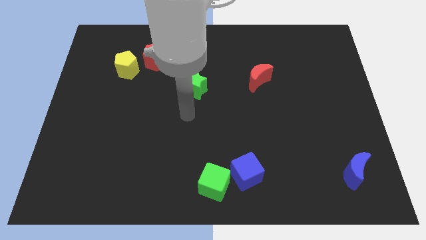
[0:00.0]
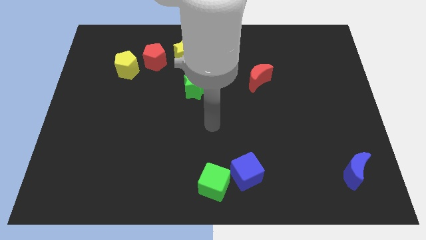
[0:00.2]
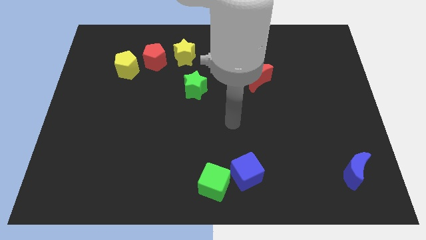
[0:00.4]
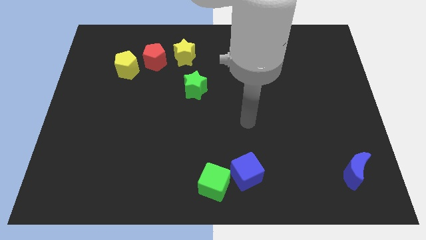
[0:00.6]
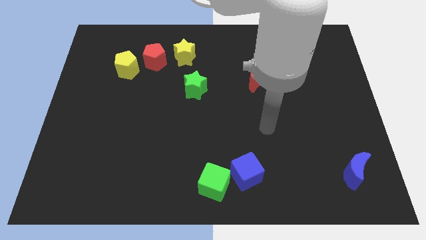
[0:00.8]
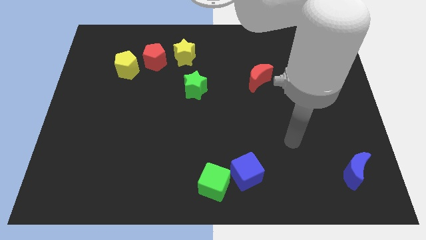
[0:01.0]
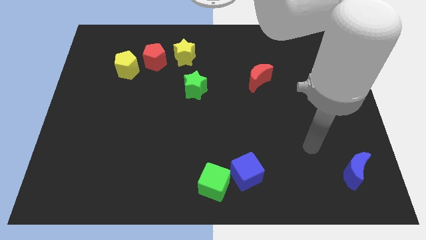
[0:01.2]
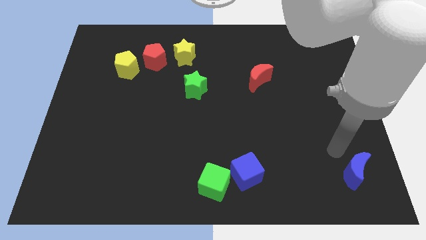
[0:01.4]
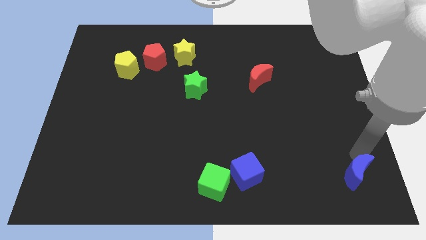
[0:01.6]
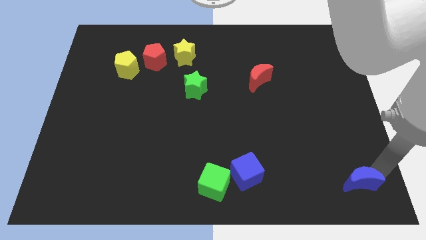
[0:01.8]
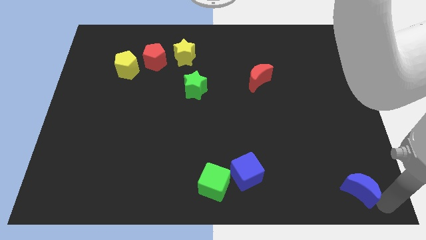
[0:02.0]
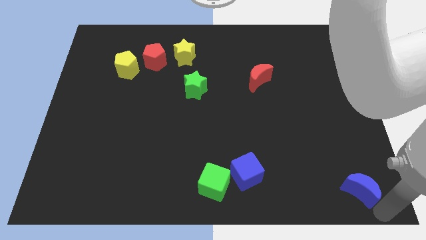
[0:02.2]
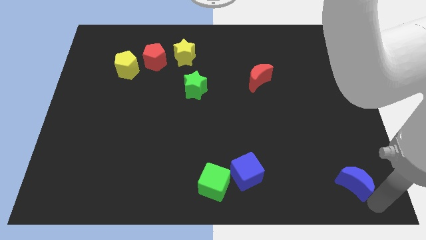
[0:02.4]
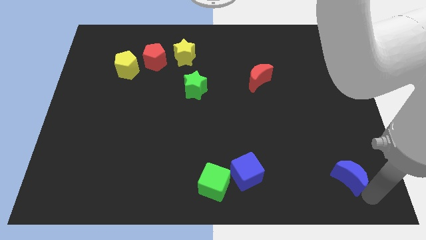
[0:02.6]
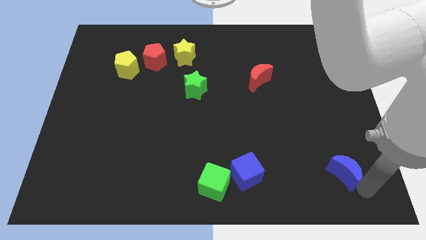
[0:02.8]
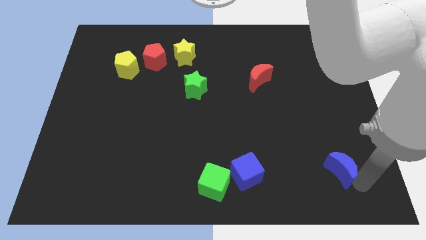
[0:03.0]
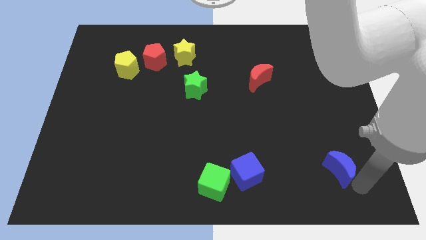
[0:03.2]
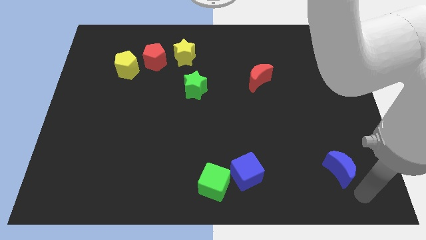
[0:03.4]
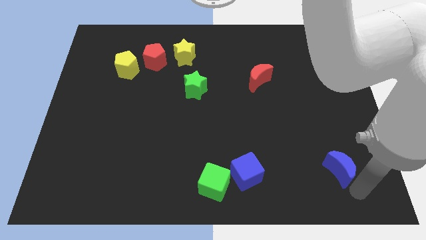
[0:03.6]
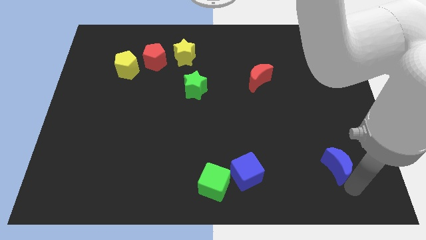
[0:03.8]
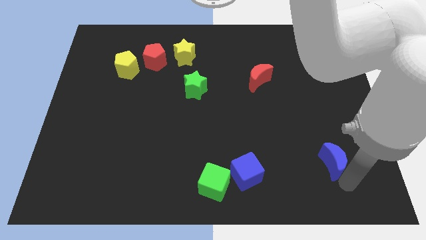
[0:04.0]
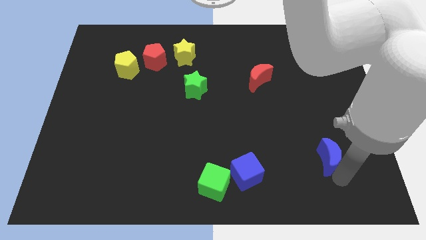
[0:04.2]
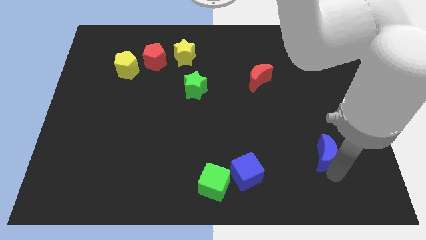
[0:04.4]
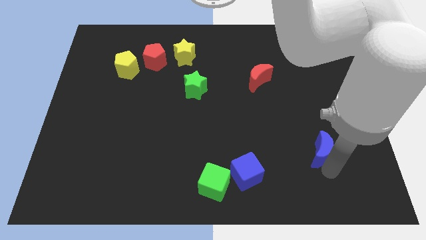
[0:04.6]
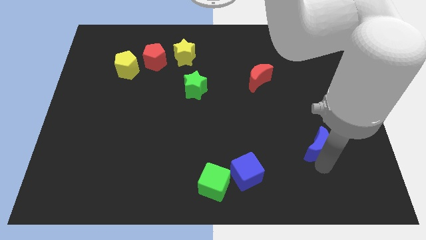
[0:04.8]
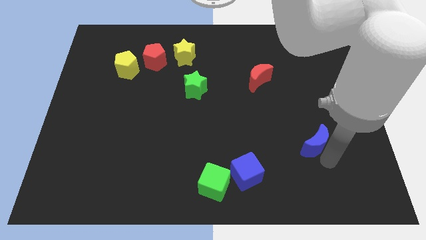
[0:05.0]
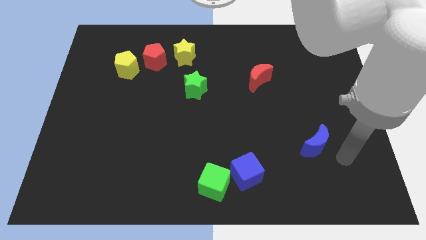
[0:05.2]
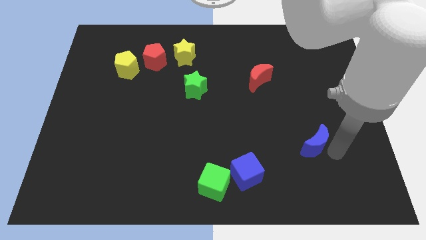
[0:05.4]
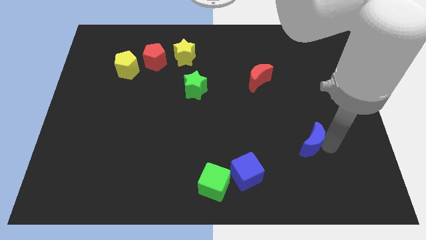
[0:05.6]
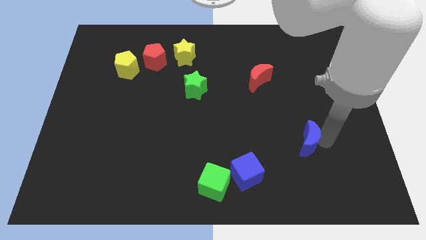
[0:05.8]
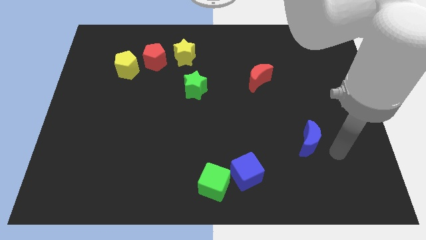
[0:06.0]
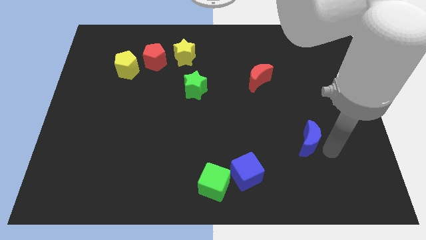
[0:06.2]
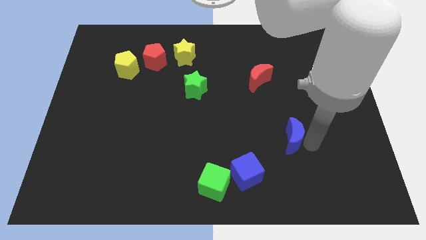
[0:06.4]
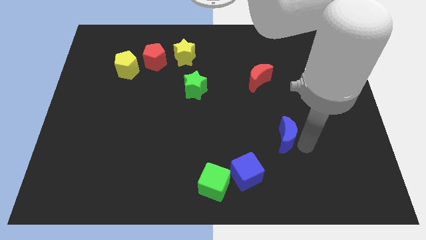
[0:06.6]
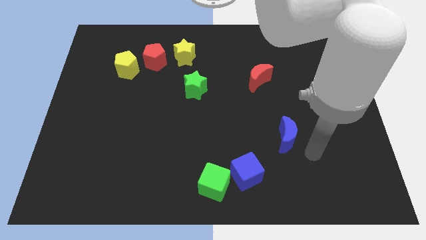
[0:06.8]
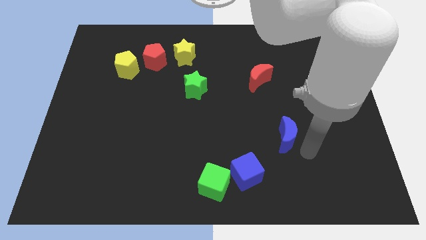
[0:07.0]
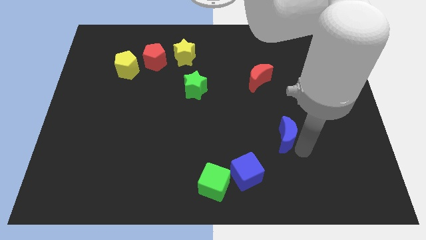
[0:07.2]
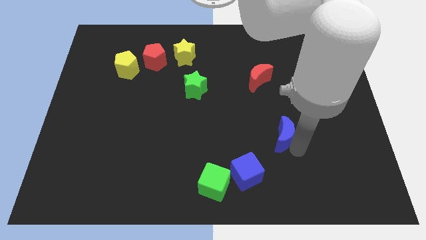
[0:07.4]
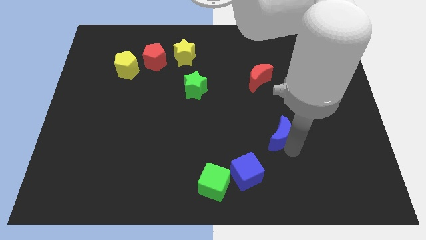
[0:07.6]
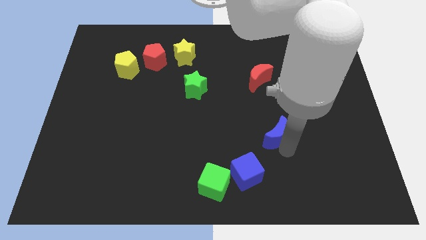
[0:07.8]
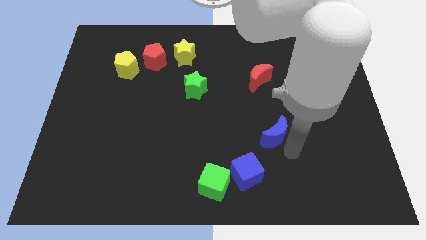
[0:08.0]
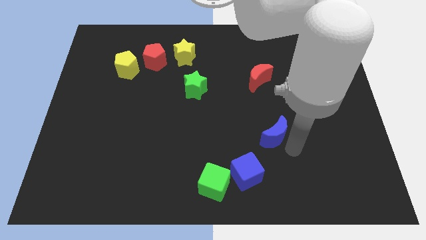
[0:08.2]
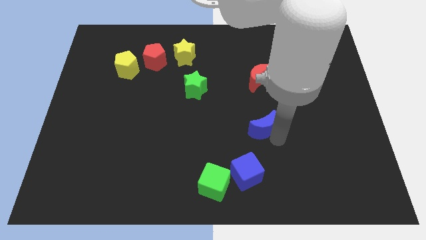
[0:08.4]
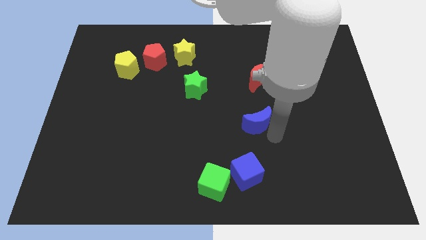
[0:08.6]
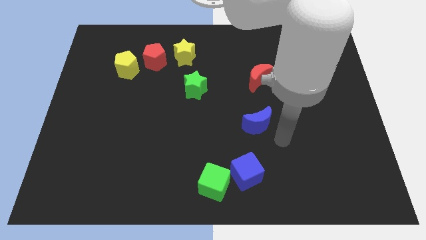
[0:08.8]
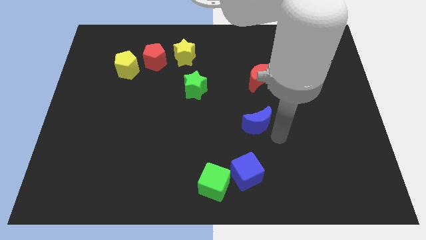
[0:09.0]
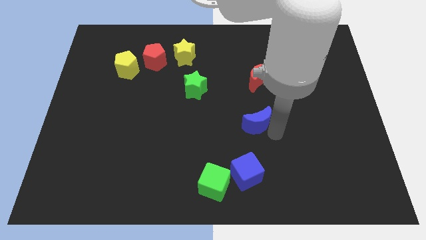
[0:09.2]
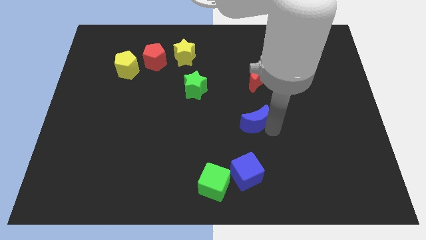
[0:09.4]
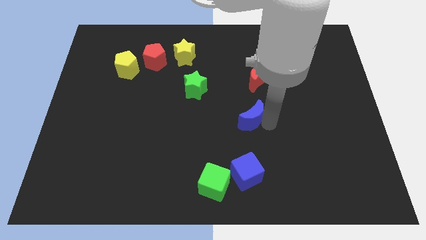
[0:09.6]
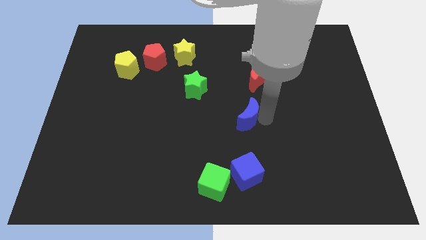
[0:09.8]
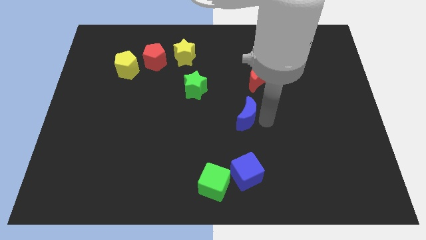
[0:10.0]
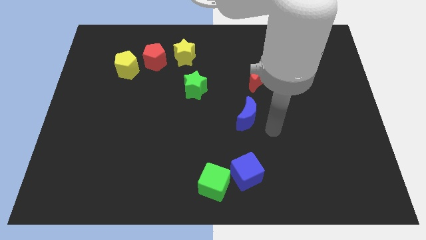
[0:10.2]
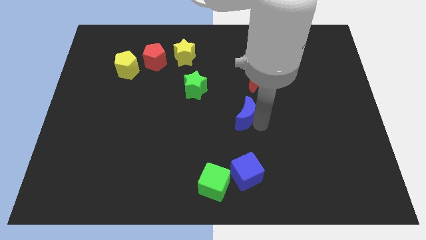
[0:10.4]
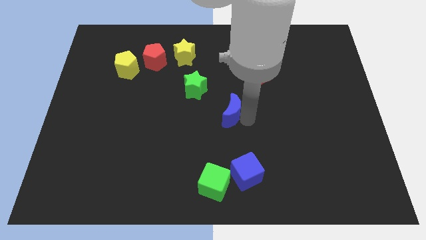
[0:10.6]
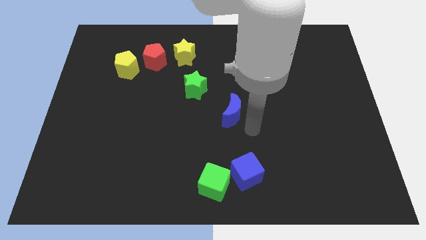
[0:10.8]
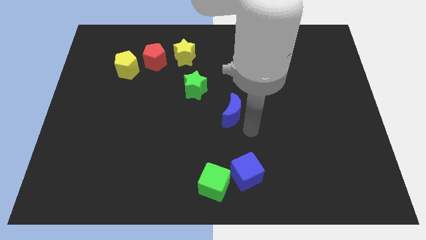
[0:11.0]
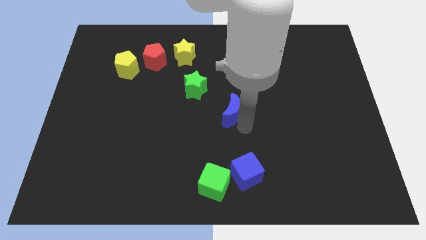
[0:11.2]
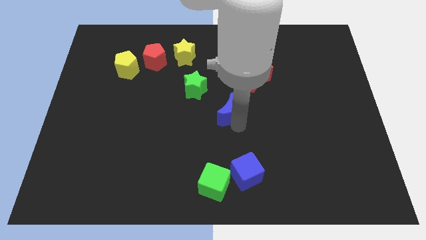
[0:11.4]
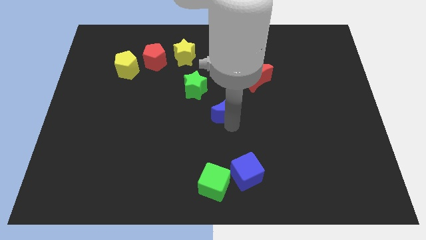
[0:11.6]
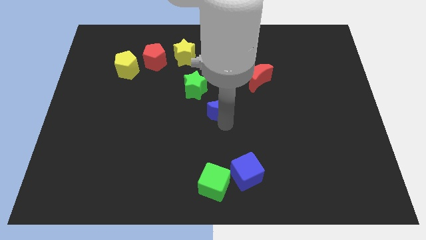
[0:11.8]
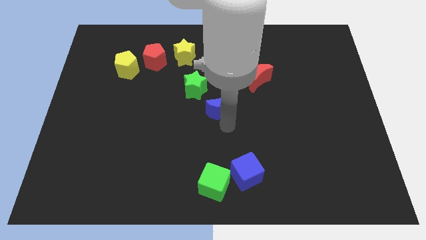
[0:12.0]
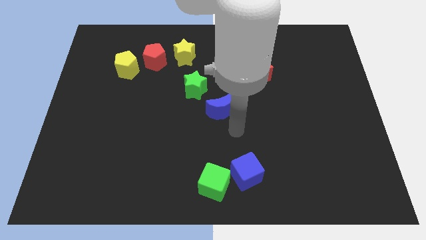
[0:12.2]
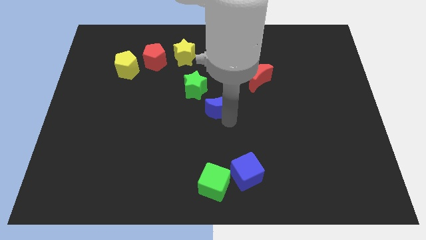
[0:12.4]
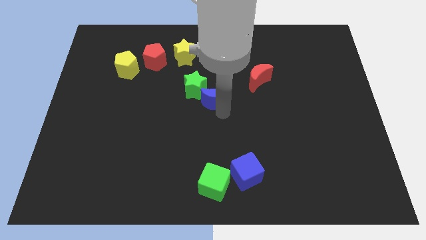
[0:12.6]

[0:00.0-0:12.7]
slide the blue moon towards the green star

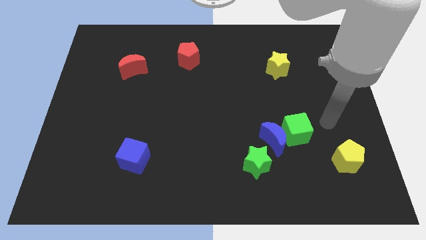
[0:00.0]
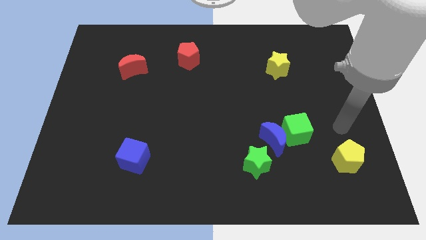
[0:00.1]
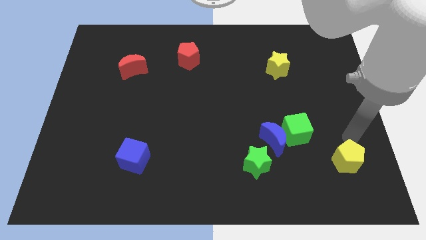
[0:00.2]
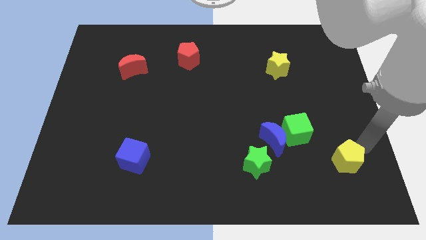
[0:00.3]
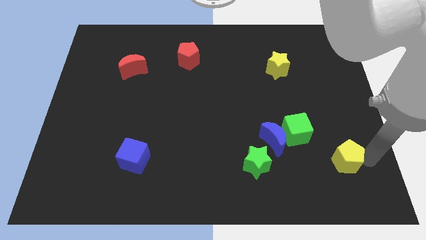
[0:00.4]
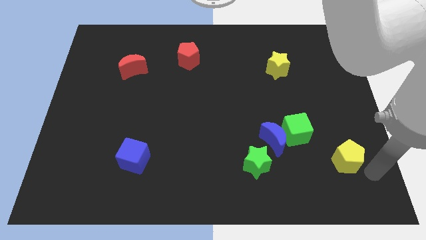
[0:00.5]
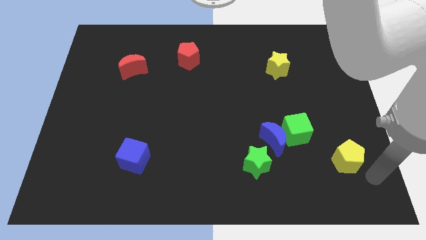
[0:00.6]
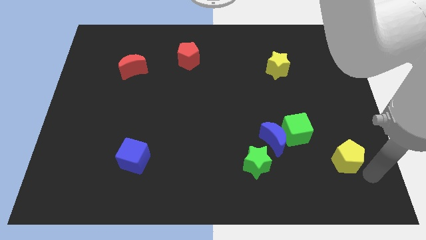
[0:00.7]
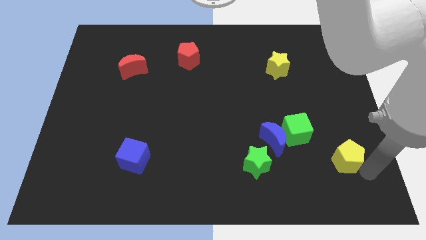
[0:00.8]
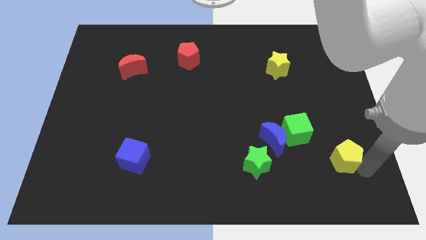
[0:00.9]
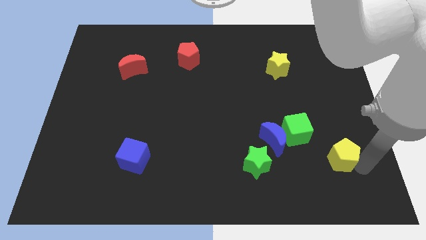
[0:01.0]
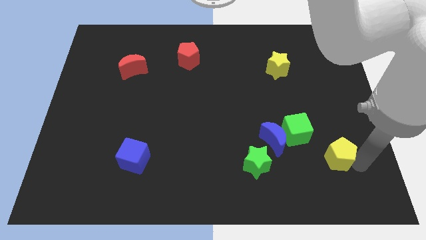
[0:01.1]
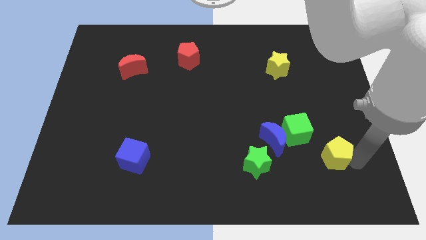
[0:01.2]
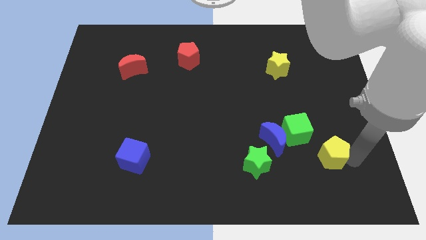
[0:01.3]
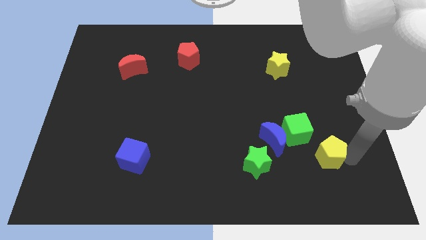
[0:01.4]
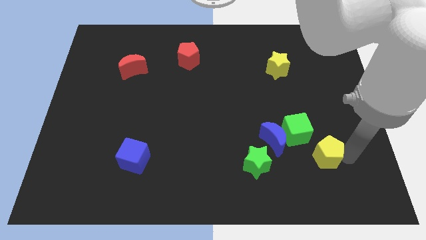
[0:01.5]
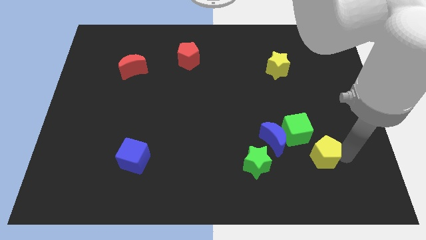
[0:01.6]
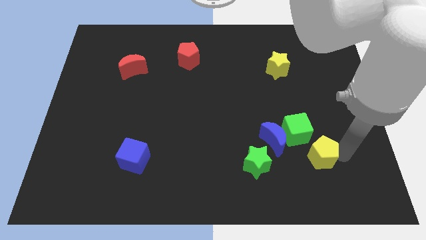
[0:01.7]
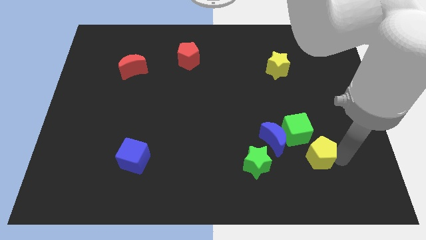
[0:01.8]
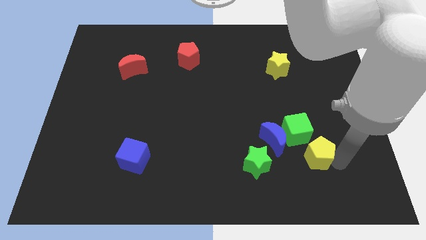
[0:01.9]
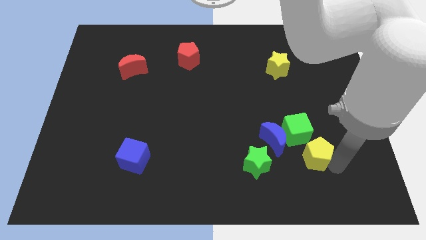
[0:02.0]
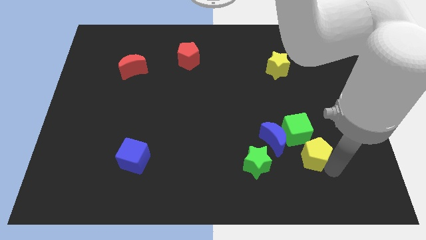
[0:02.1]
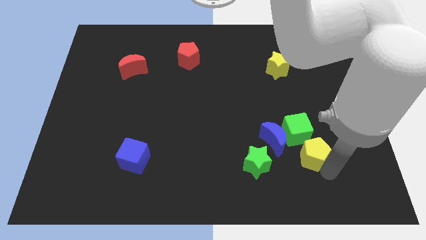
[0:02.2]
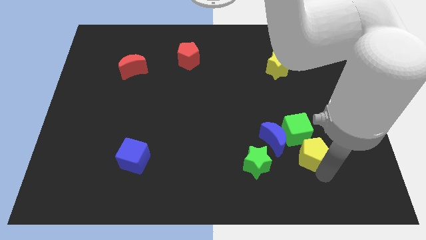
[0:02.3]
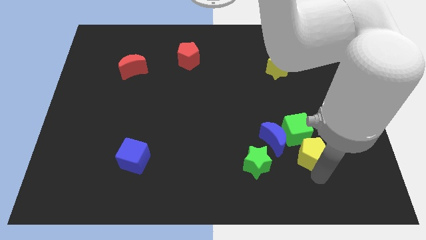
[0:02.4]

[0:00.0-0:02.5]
push the yellow pentagon to the green cube
